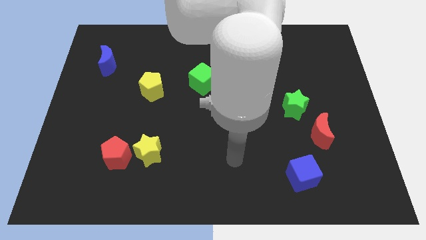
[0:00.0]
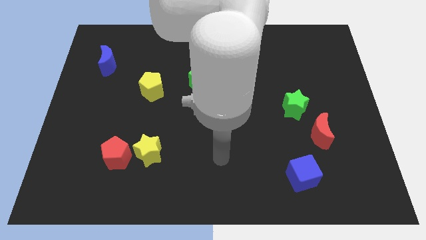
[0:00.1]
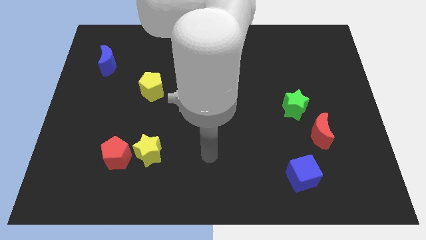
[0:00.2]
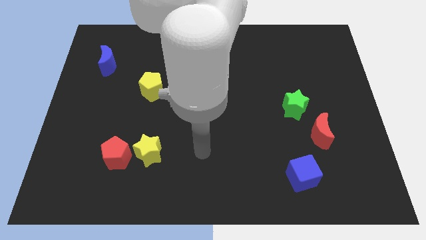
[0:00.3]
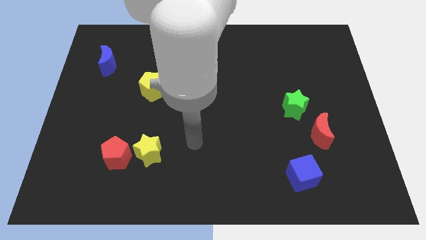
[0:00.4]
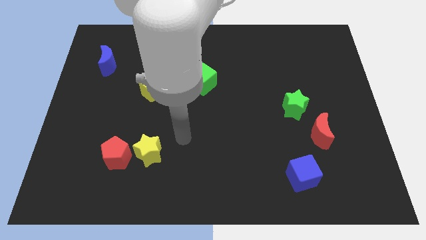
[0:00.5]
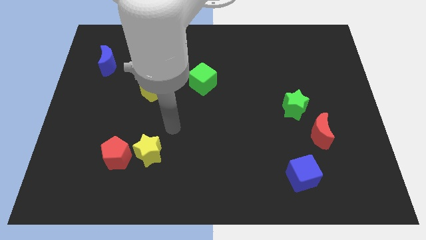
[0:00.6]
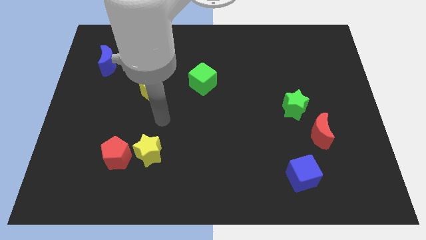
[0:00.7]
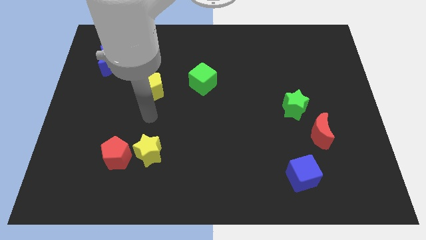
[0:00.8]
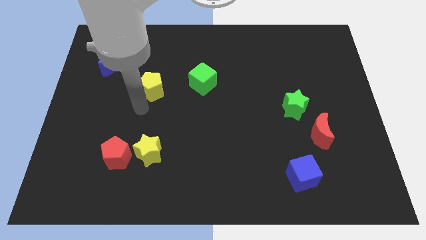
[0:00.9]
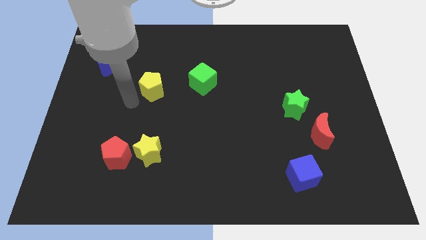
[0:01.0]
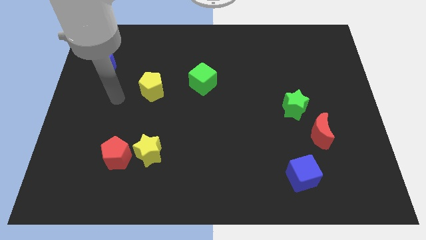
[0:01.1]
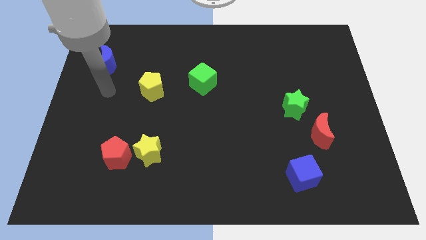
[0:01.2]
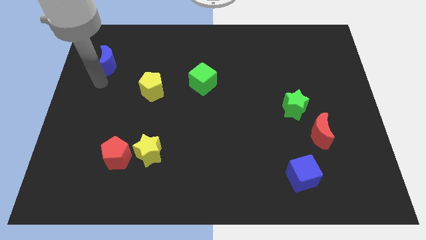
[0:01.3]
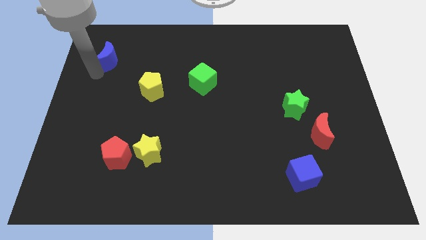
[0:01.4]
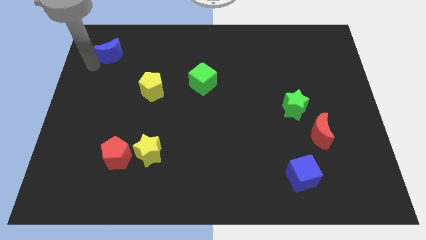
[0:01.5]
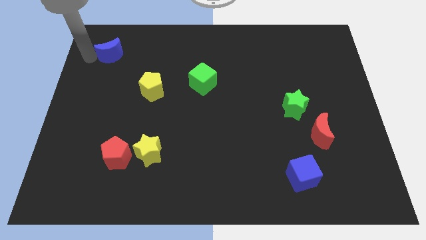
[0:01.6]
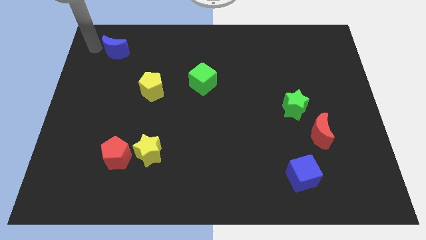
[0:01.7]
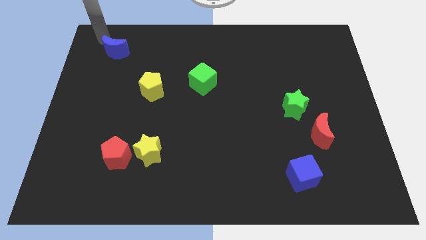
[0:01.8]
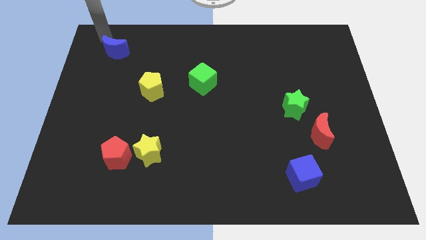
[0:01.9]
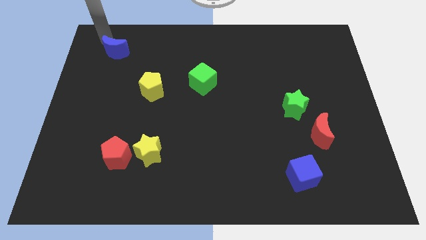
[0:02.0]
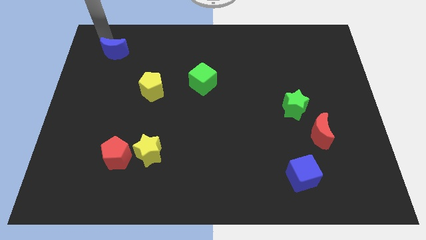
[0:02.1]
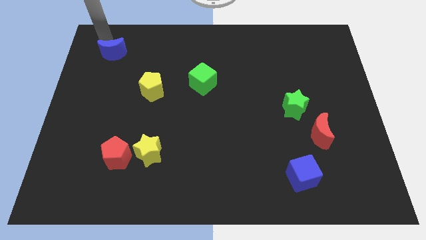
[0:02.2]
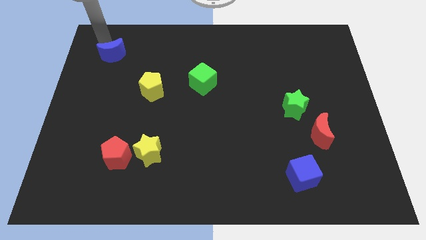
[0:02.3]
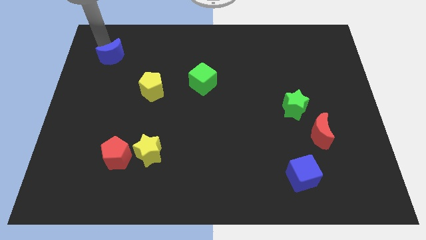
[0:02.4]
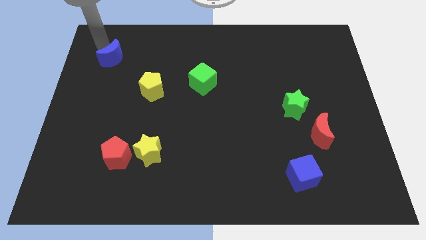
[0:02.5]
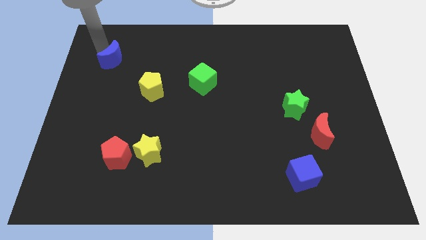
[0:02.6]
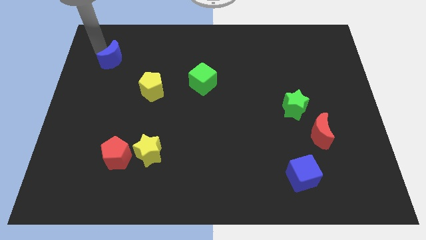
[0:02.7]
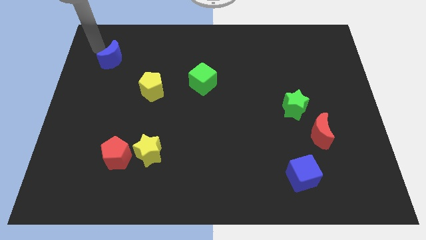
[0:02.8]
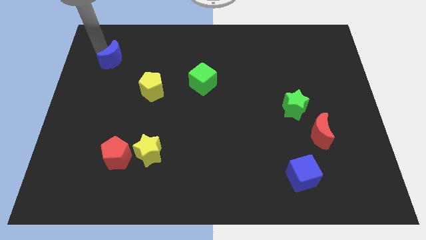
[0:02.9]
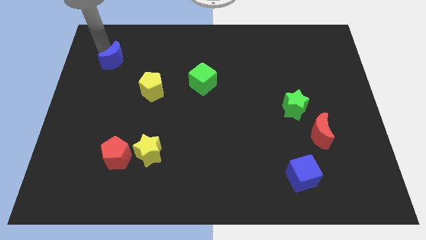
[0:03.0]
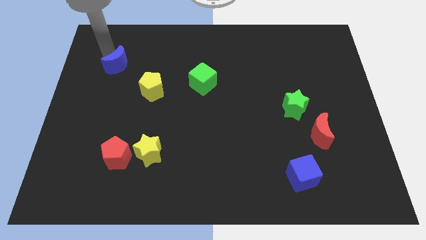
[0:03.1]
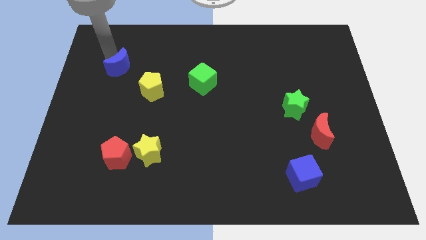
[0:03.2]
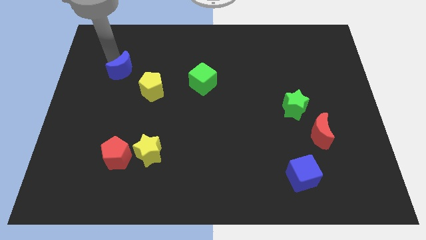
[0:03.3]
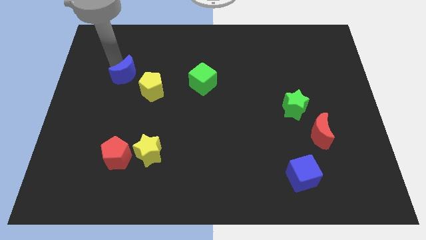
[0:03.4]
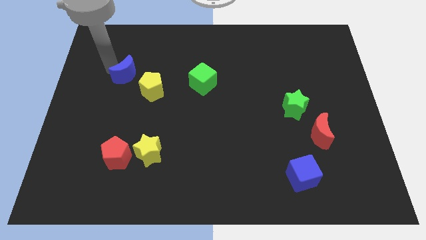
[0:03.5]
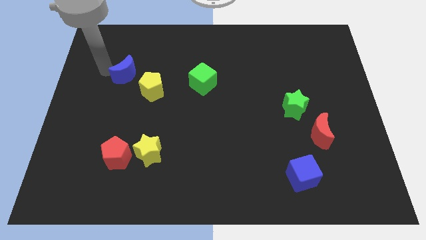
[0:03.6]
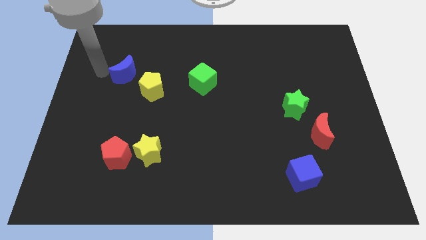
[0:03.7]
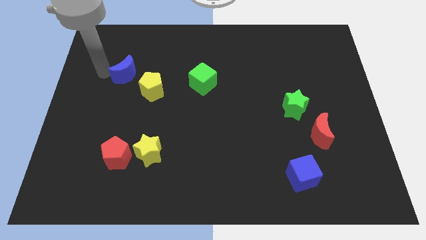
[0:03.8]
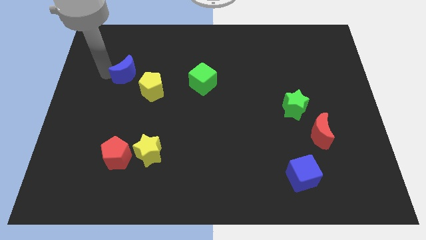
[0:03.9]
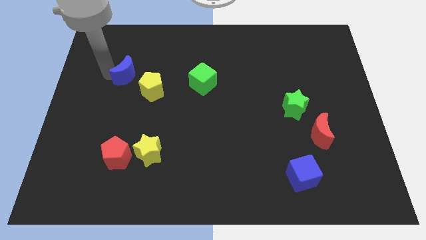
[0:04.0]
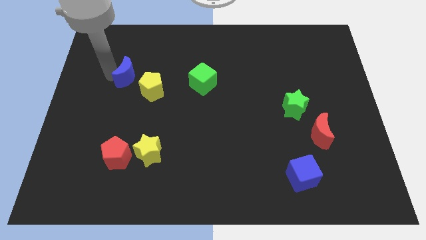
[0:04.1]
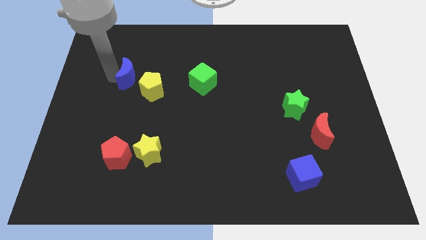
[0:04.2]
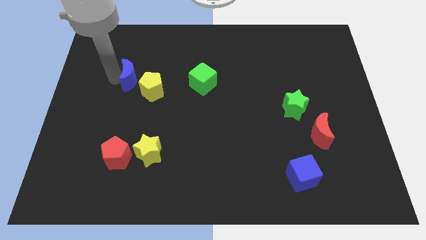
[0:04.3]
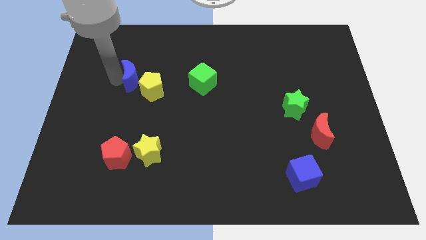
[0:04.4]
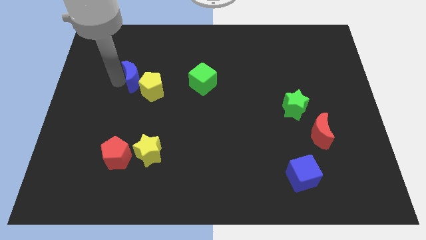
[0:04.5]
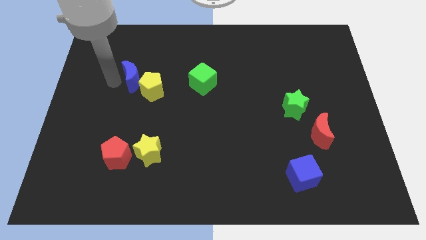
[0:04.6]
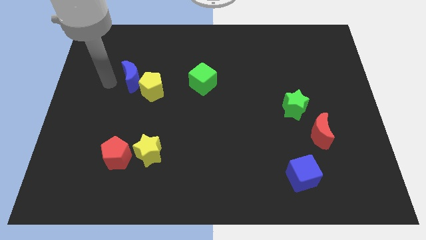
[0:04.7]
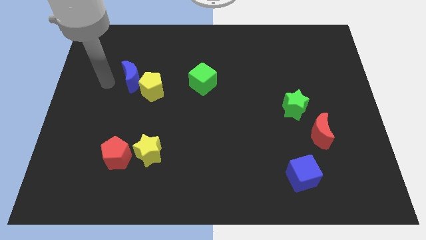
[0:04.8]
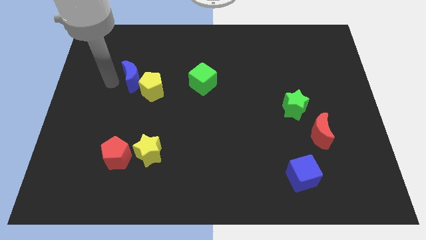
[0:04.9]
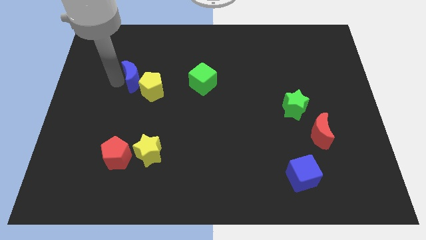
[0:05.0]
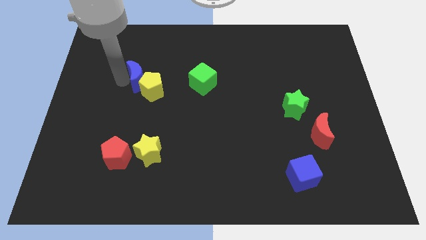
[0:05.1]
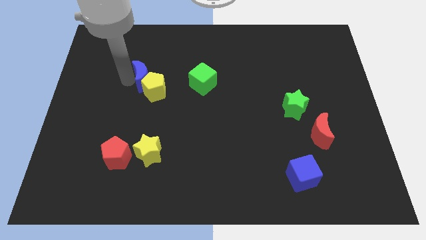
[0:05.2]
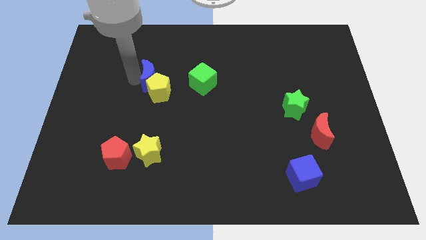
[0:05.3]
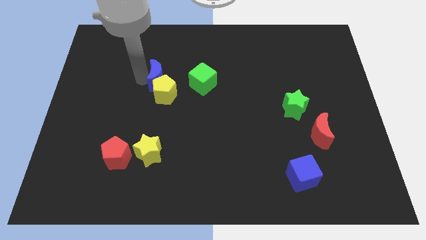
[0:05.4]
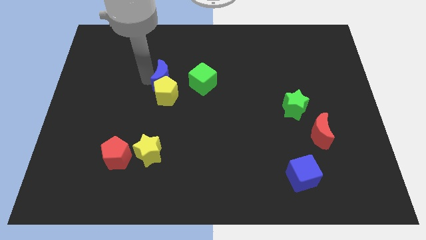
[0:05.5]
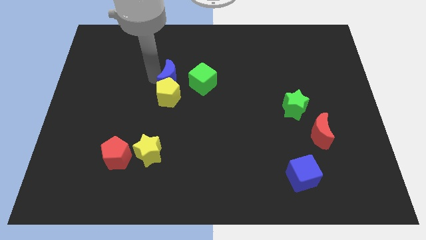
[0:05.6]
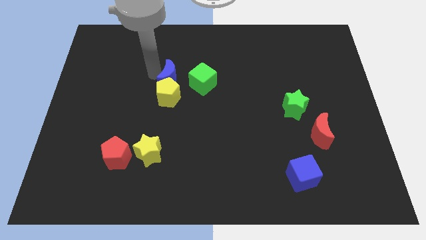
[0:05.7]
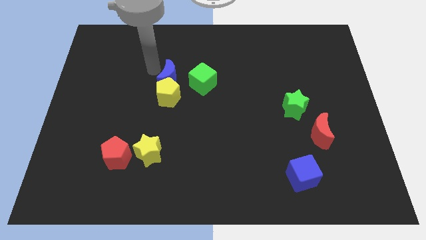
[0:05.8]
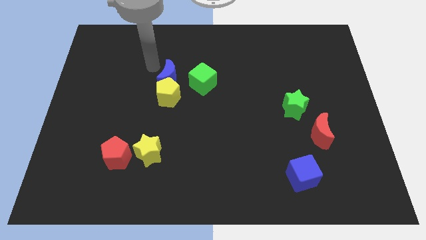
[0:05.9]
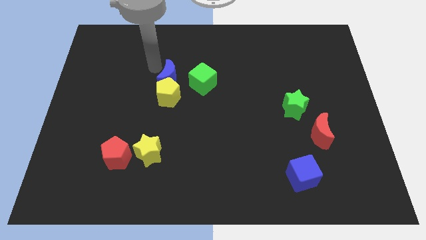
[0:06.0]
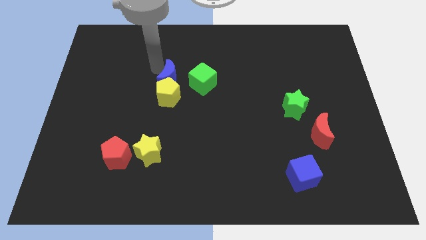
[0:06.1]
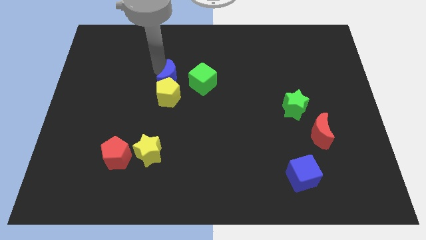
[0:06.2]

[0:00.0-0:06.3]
slide the blue moon to the center

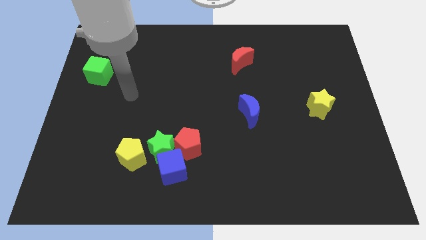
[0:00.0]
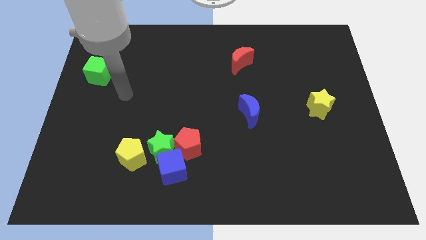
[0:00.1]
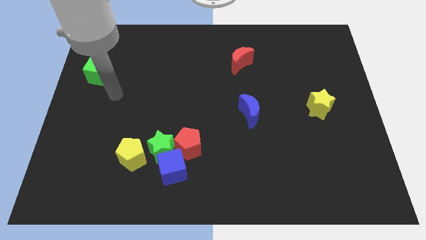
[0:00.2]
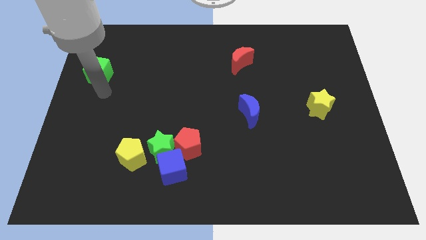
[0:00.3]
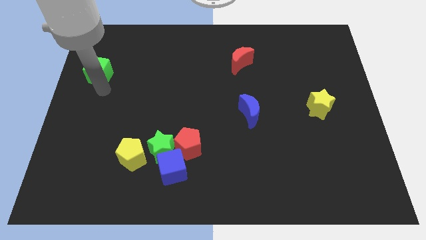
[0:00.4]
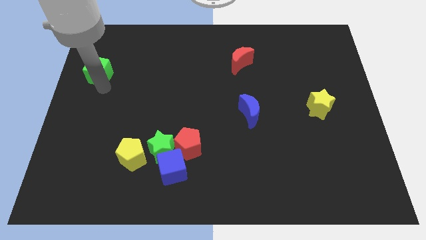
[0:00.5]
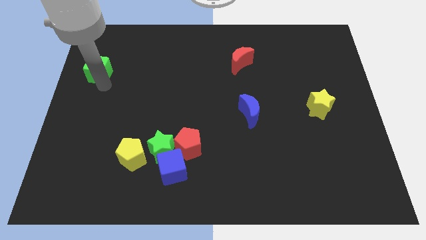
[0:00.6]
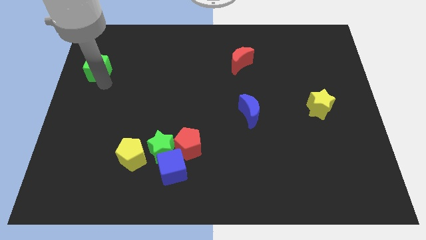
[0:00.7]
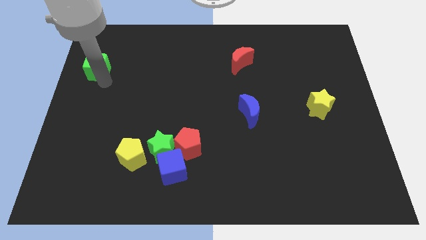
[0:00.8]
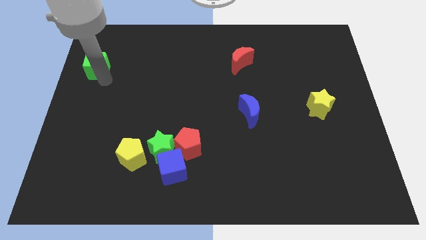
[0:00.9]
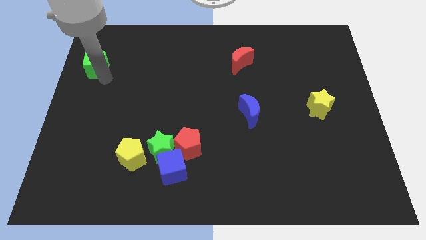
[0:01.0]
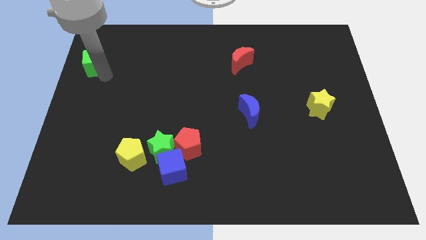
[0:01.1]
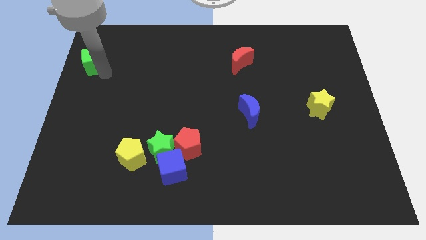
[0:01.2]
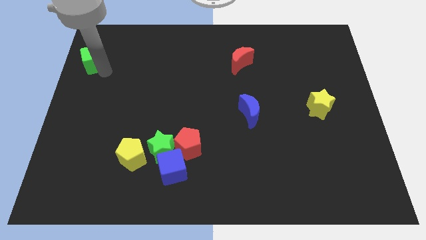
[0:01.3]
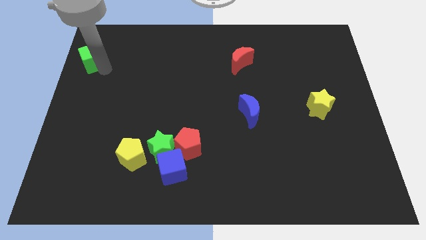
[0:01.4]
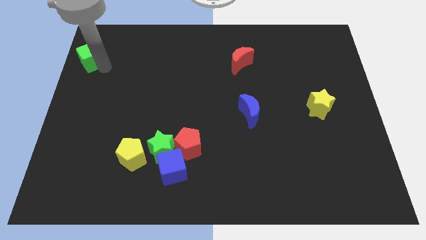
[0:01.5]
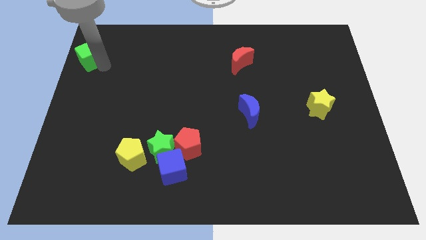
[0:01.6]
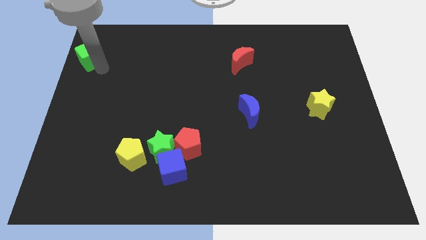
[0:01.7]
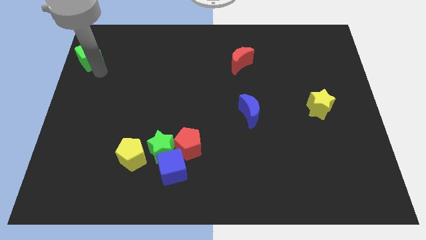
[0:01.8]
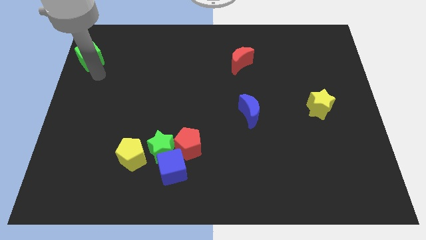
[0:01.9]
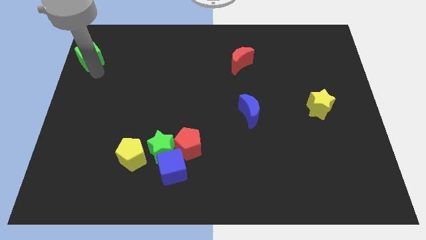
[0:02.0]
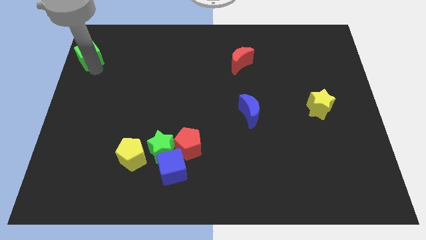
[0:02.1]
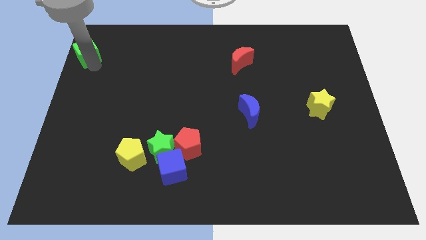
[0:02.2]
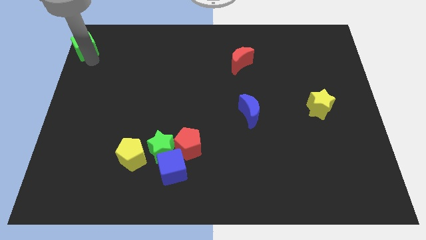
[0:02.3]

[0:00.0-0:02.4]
move the green cube to the top left
